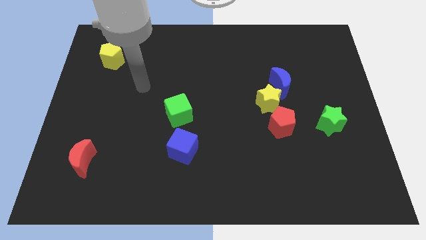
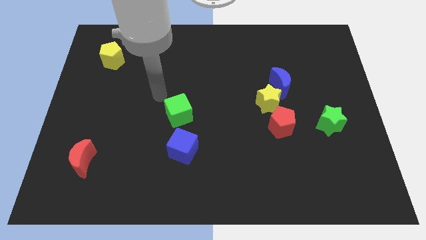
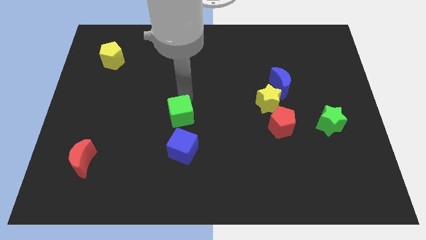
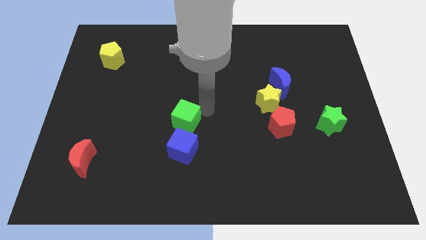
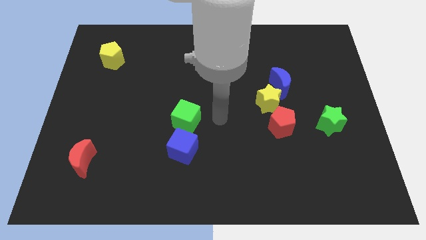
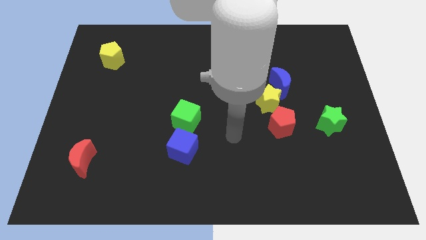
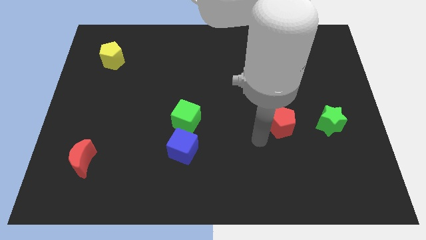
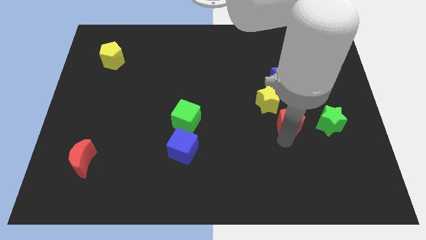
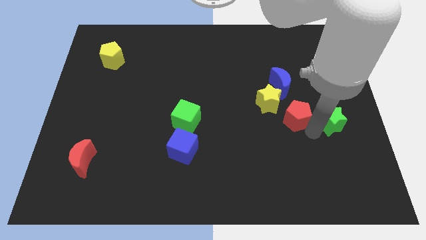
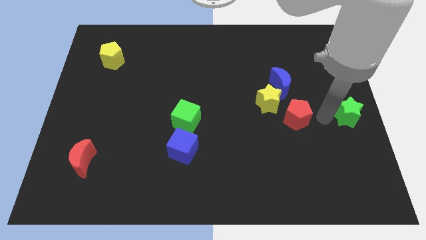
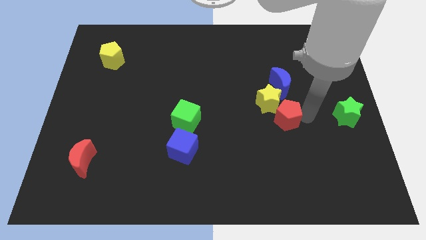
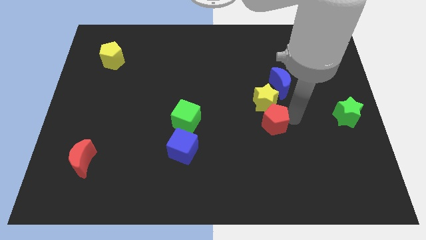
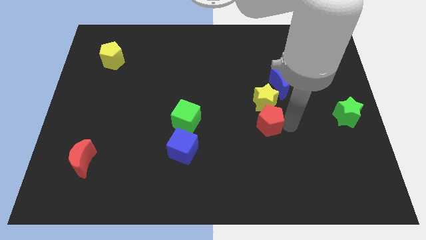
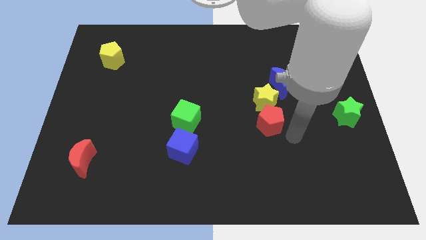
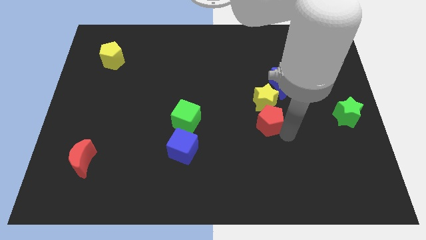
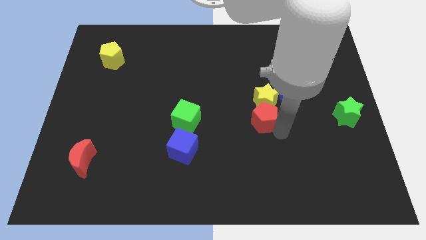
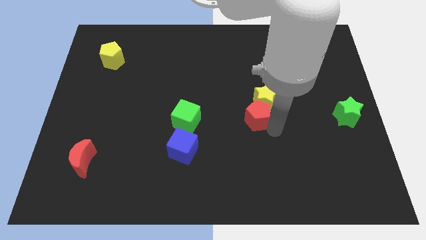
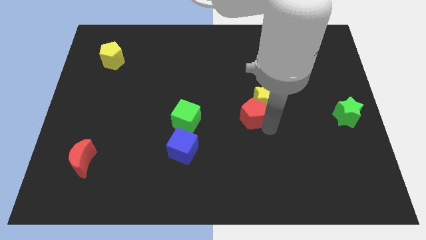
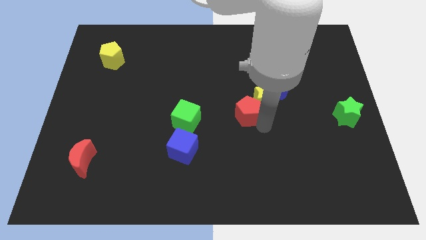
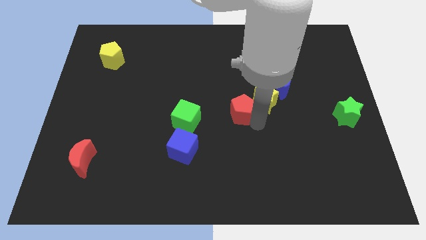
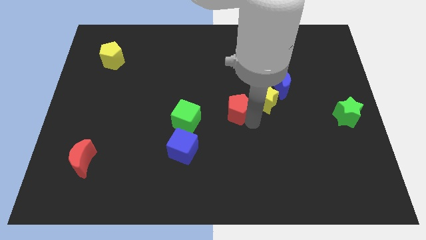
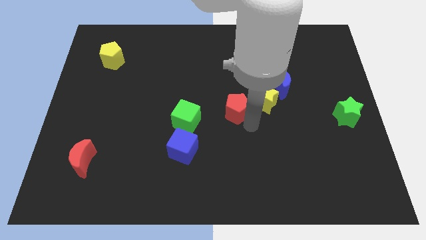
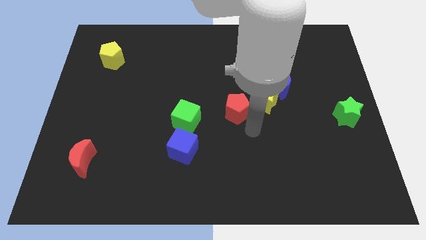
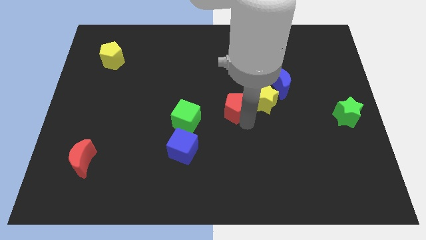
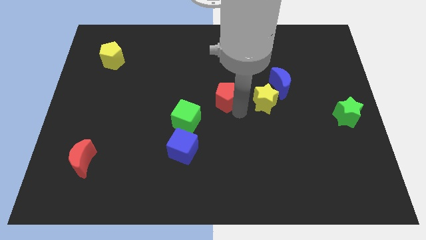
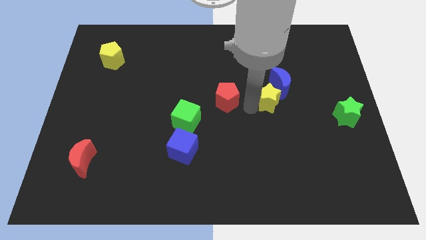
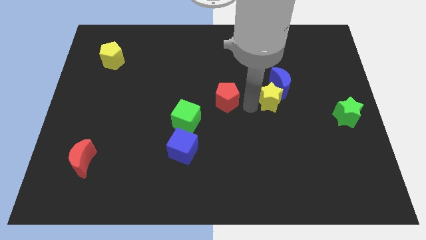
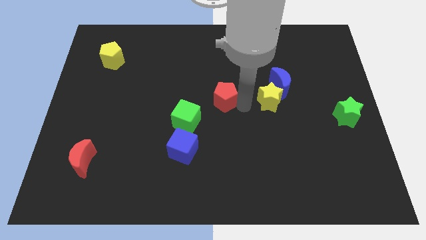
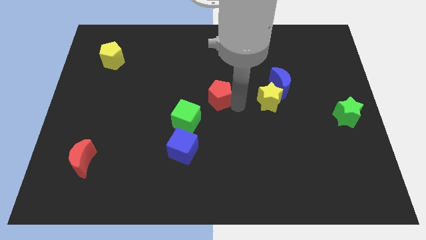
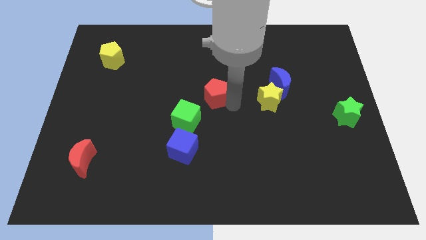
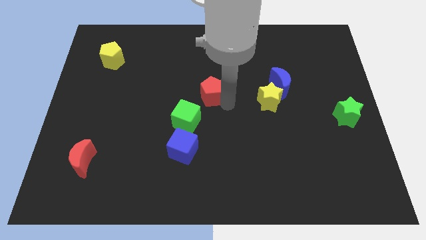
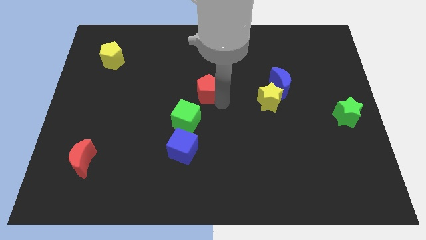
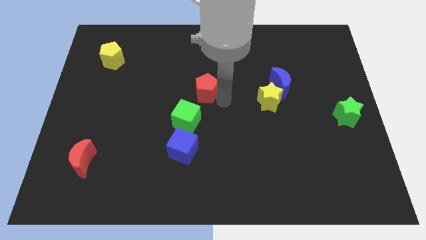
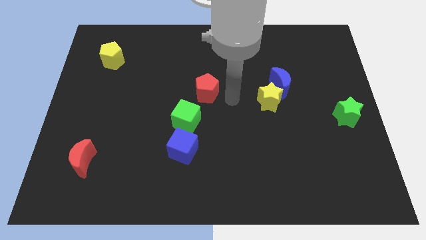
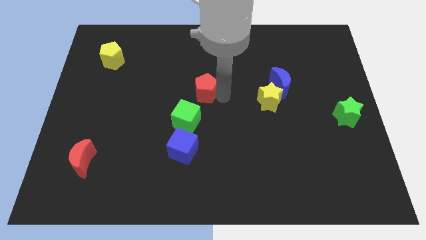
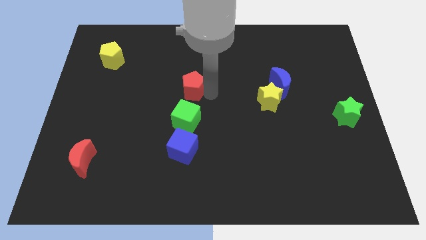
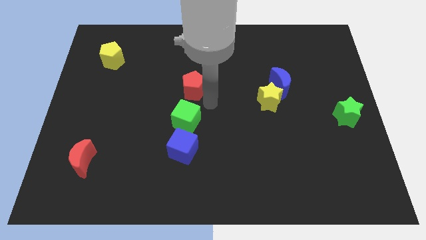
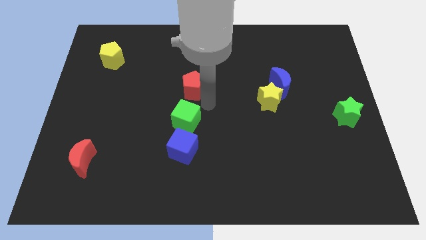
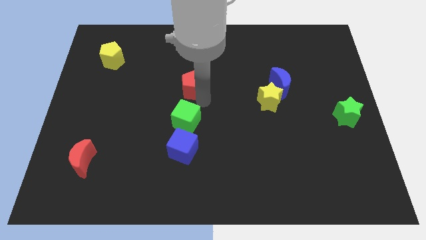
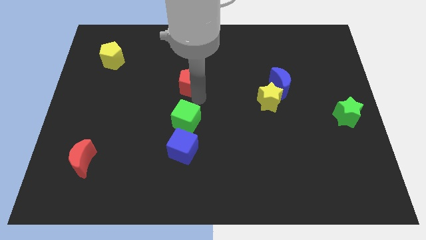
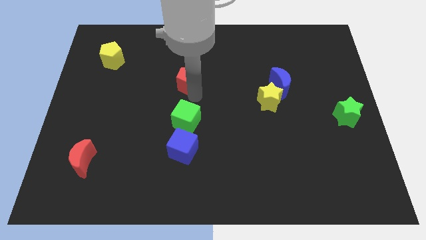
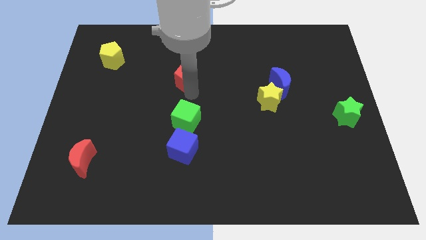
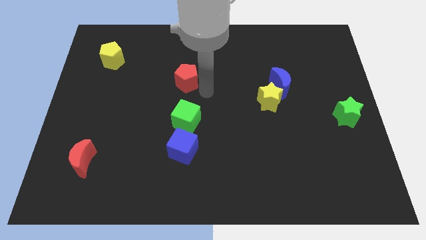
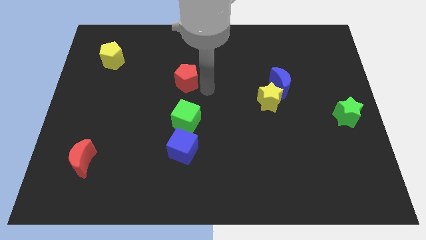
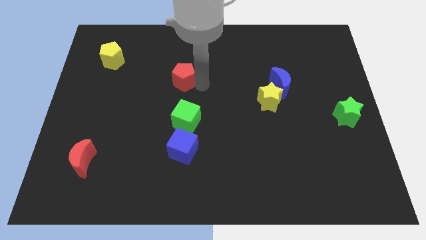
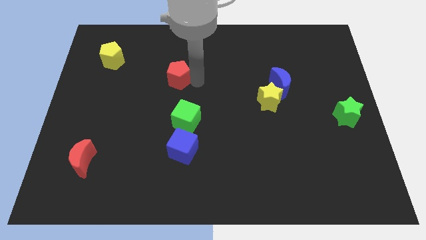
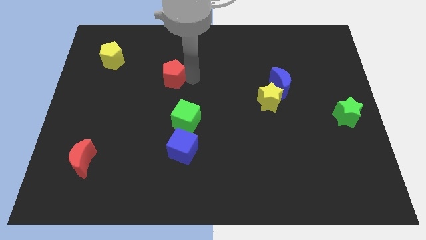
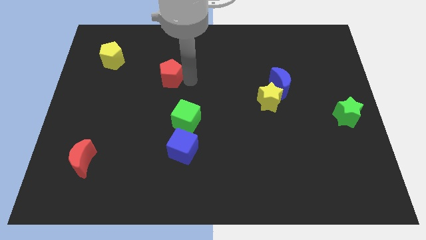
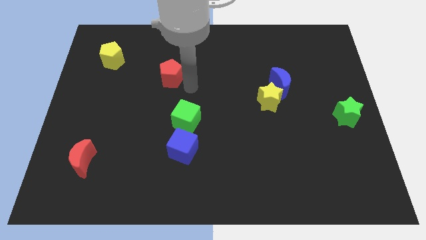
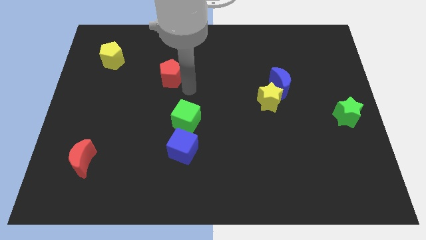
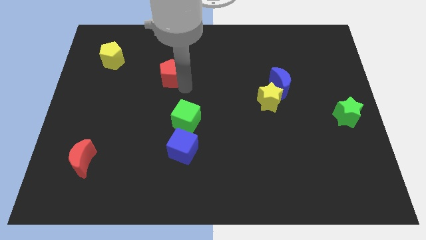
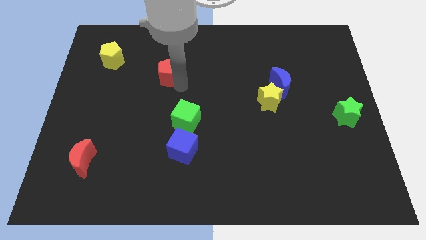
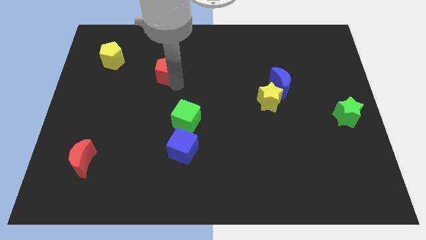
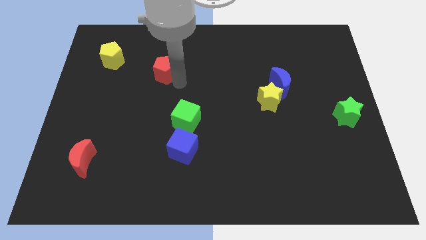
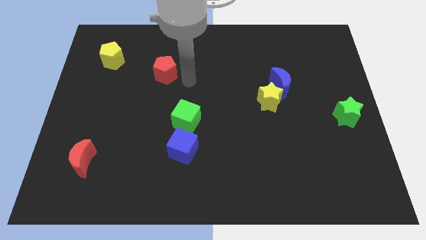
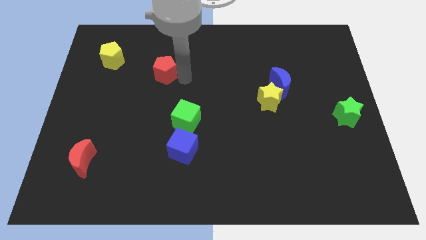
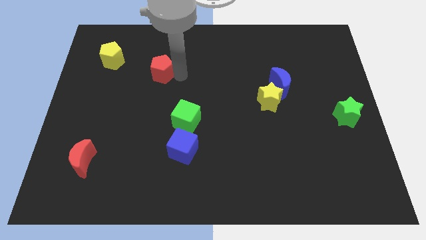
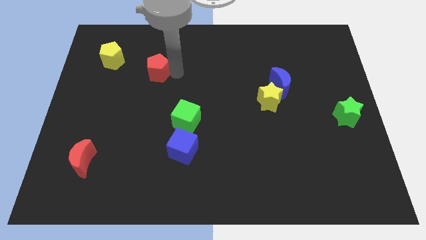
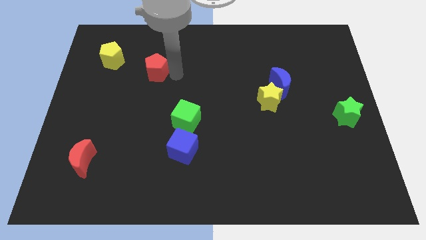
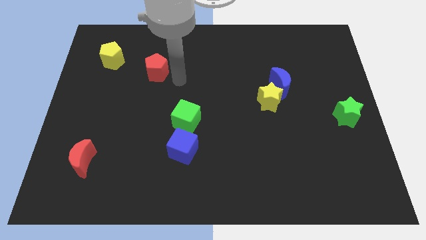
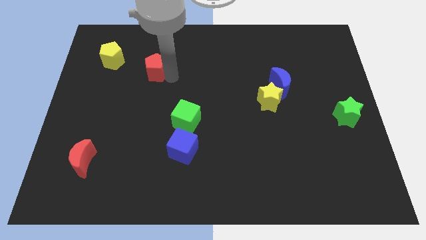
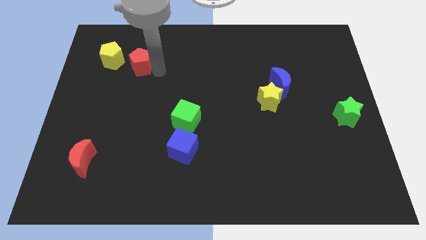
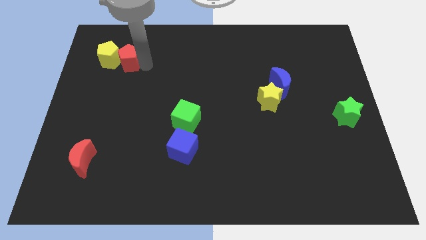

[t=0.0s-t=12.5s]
put the red pentagon to the yellow pentagon
